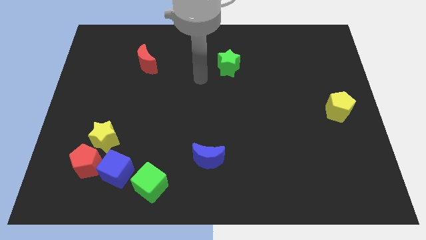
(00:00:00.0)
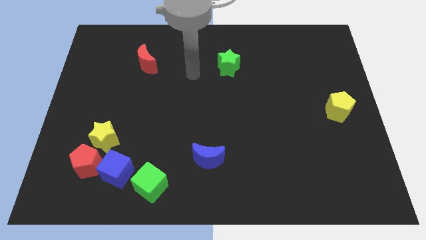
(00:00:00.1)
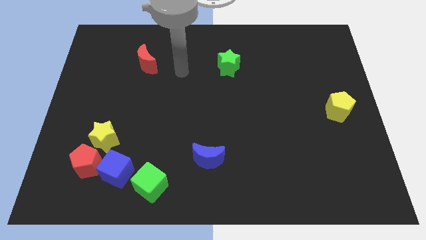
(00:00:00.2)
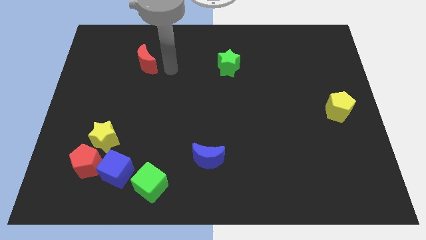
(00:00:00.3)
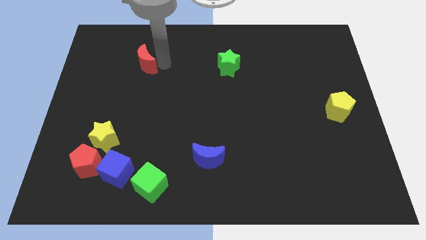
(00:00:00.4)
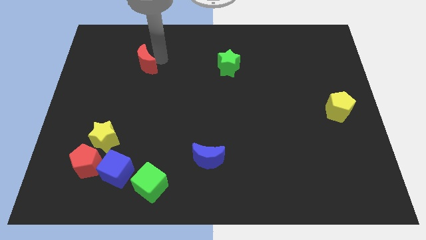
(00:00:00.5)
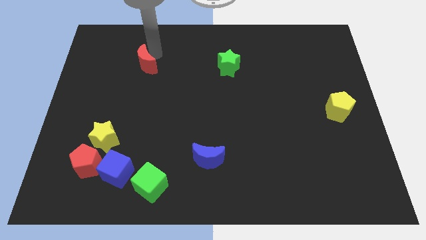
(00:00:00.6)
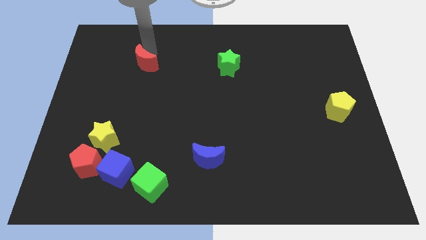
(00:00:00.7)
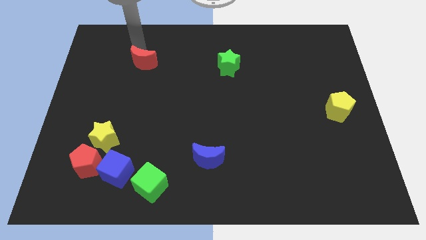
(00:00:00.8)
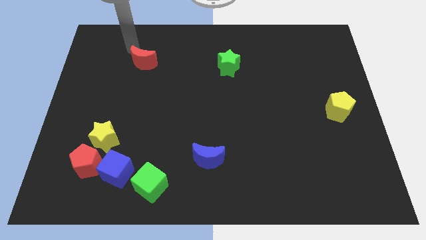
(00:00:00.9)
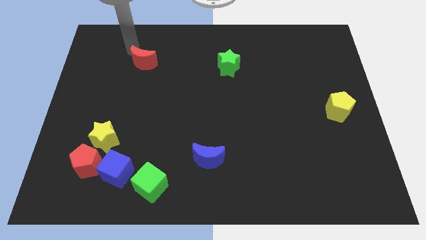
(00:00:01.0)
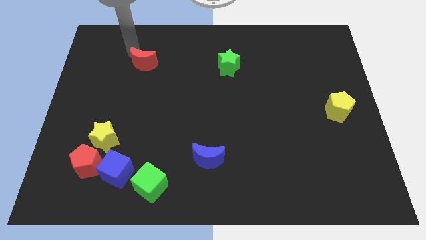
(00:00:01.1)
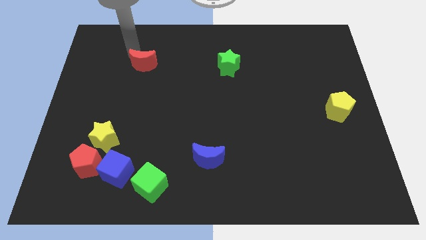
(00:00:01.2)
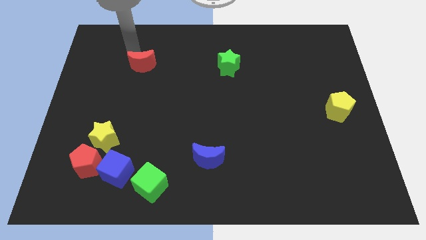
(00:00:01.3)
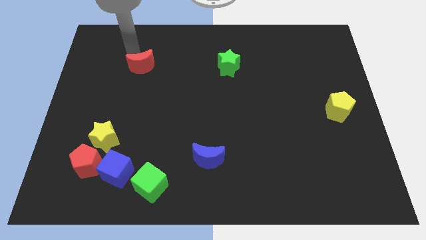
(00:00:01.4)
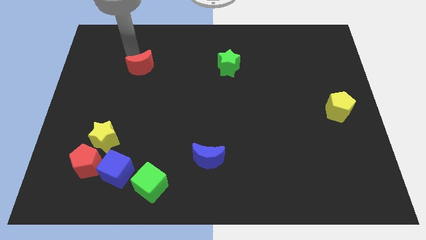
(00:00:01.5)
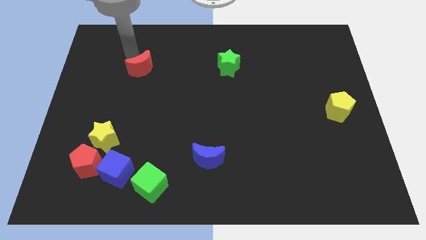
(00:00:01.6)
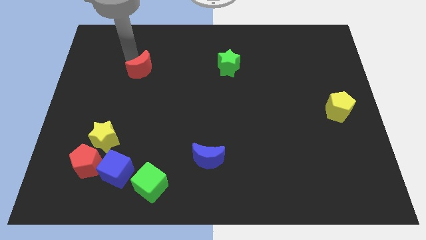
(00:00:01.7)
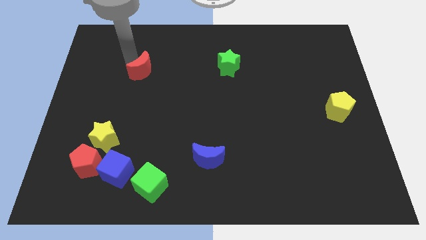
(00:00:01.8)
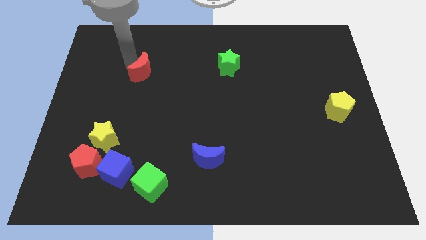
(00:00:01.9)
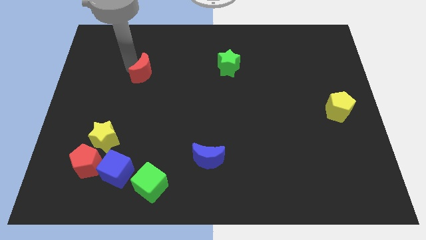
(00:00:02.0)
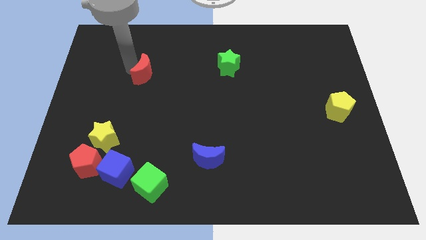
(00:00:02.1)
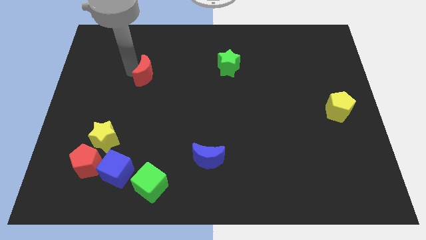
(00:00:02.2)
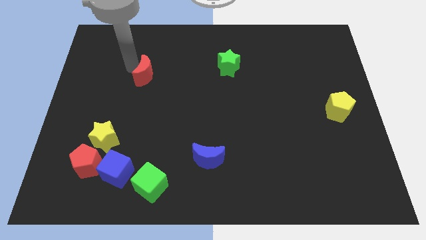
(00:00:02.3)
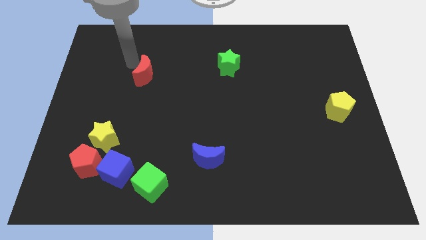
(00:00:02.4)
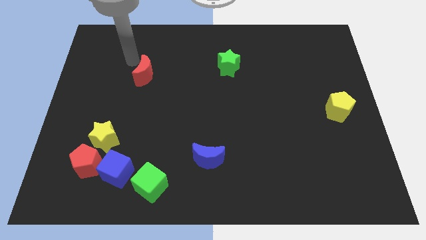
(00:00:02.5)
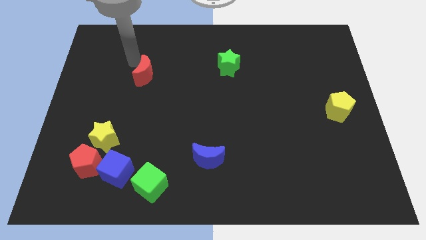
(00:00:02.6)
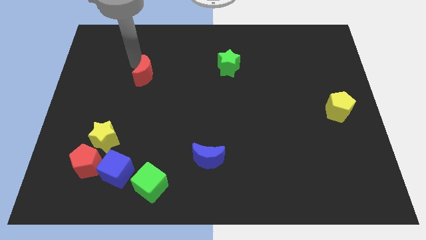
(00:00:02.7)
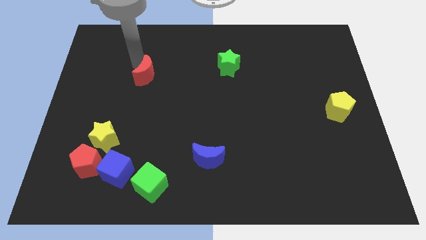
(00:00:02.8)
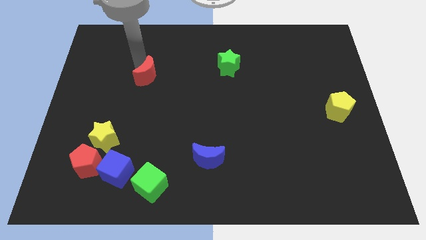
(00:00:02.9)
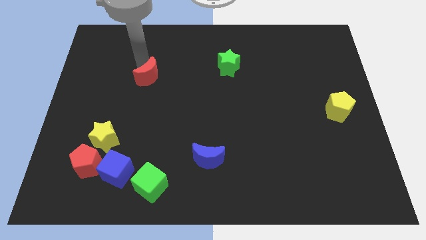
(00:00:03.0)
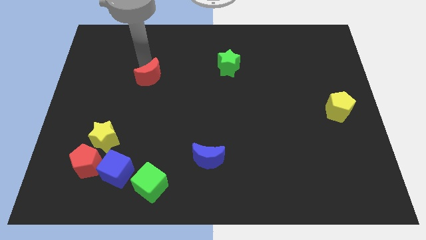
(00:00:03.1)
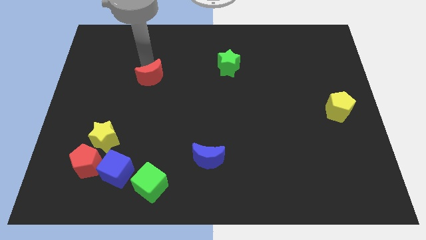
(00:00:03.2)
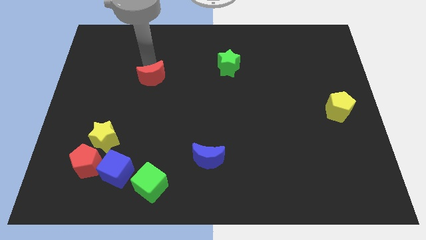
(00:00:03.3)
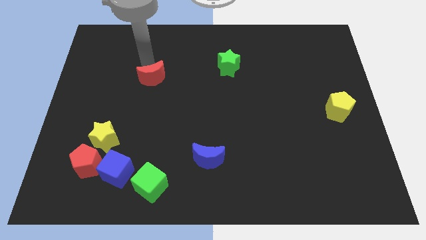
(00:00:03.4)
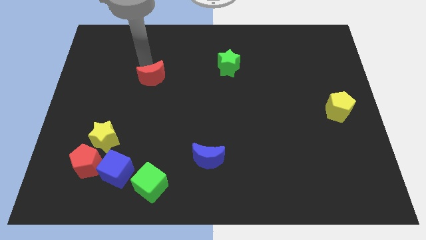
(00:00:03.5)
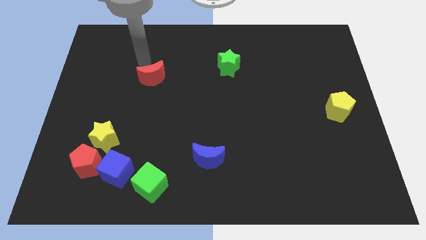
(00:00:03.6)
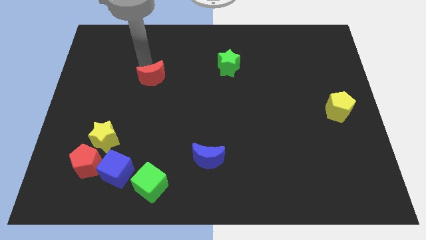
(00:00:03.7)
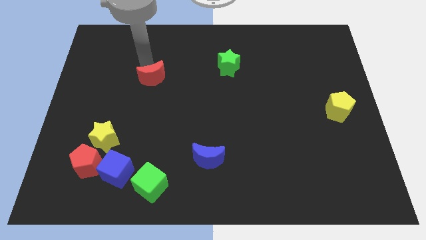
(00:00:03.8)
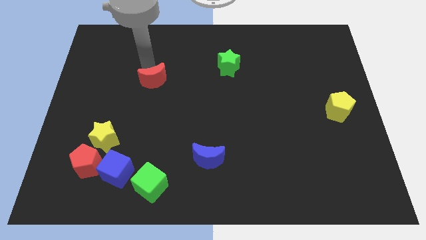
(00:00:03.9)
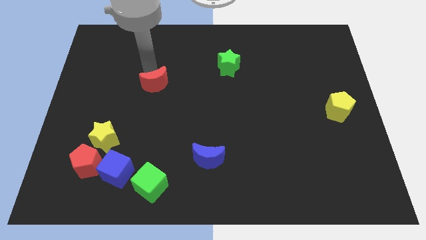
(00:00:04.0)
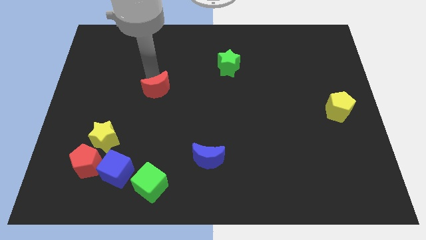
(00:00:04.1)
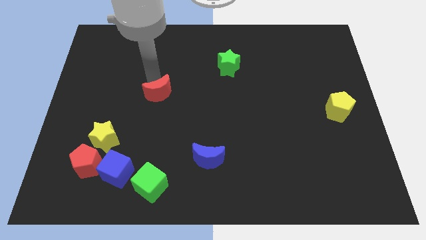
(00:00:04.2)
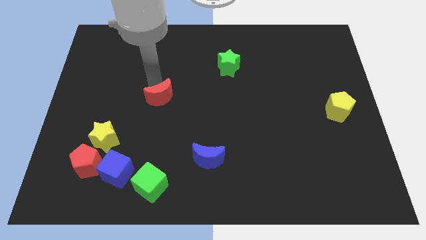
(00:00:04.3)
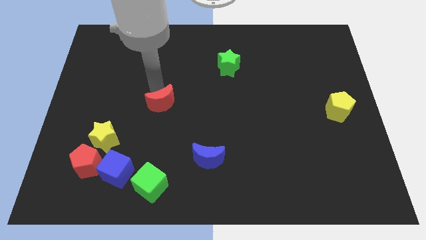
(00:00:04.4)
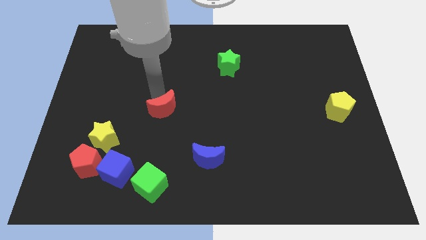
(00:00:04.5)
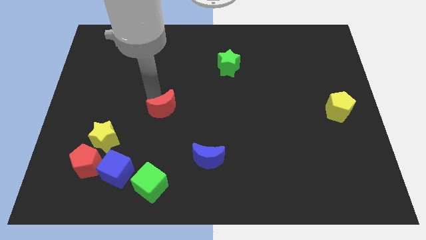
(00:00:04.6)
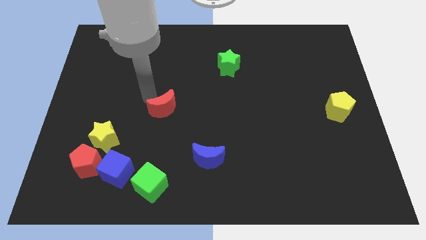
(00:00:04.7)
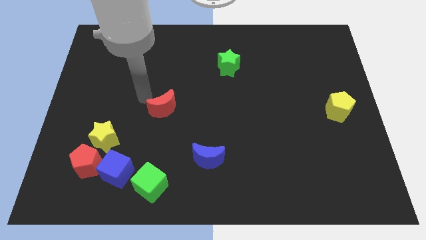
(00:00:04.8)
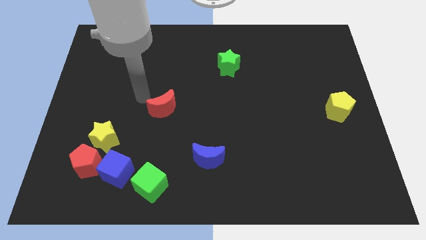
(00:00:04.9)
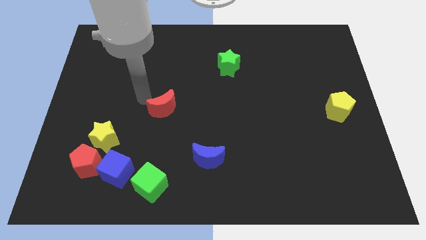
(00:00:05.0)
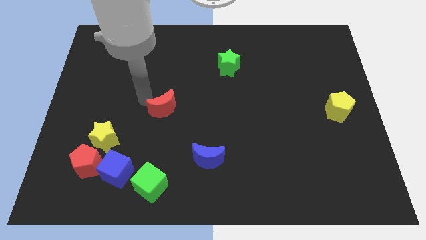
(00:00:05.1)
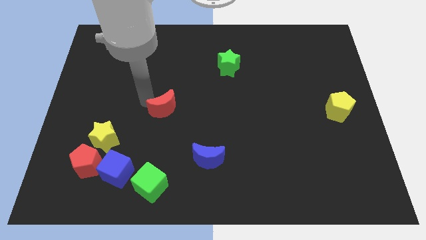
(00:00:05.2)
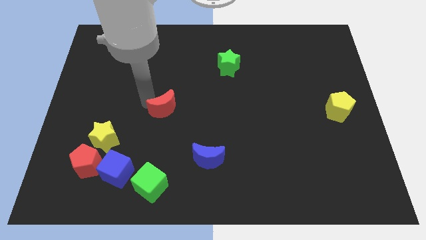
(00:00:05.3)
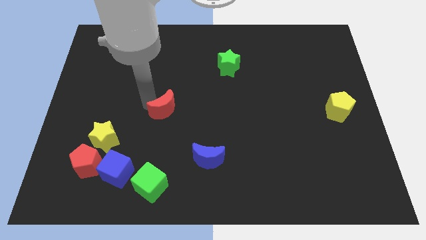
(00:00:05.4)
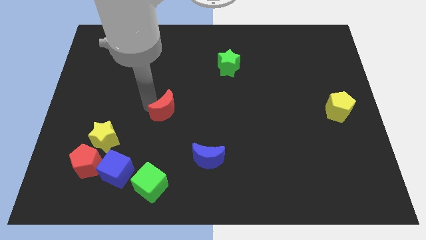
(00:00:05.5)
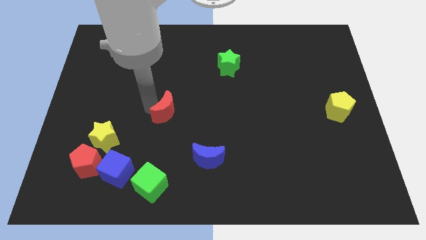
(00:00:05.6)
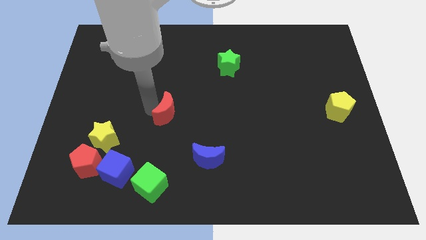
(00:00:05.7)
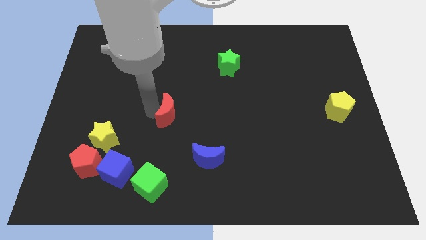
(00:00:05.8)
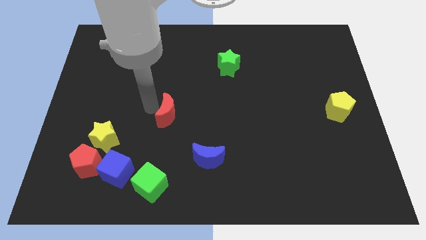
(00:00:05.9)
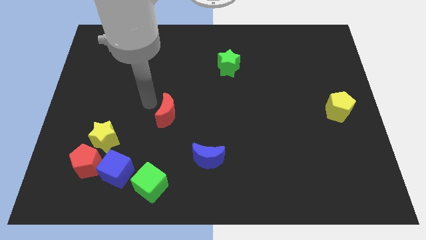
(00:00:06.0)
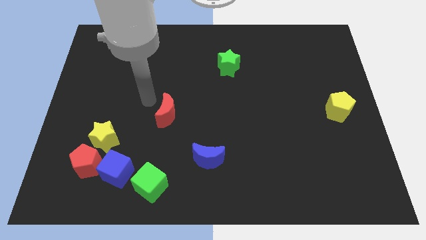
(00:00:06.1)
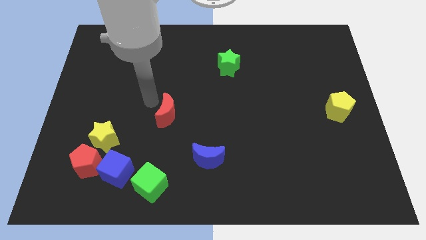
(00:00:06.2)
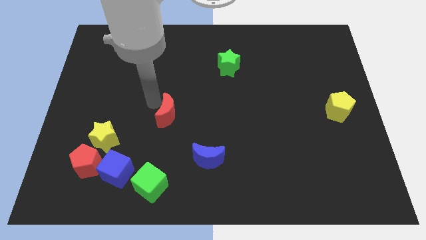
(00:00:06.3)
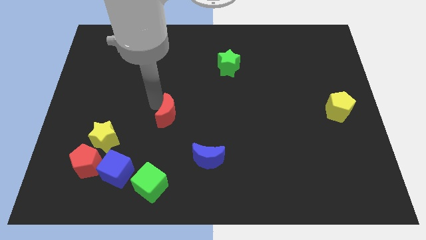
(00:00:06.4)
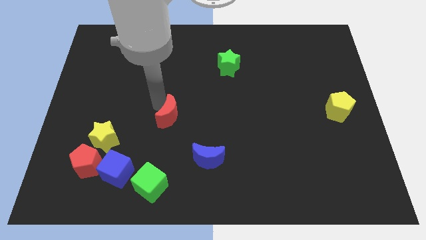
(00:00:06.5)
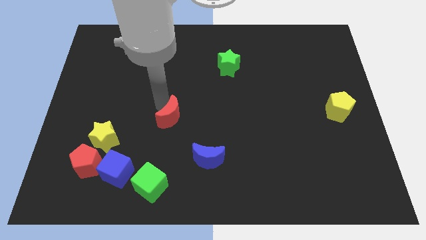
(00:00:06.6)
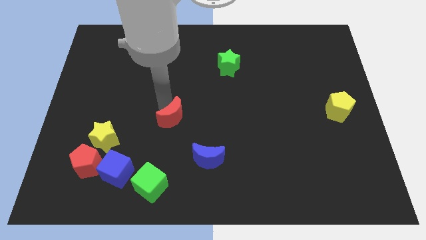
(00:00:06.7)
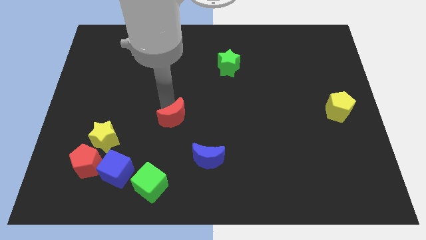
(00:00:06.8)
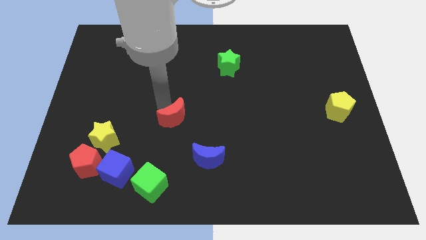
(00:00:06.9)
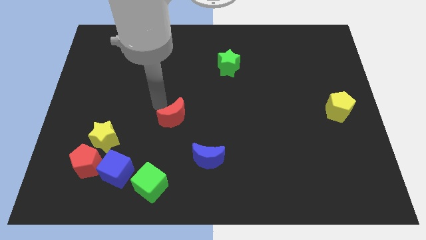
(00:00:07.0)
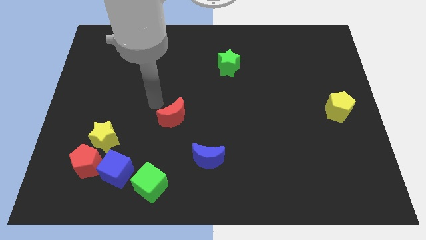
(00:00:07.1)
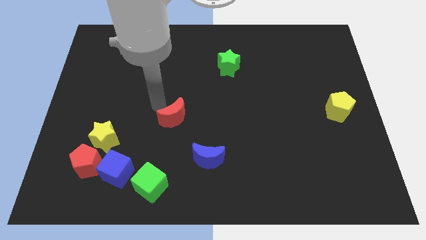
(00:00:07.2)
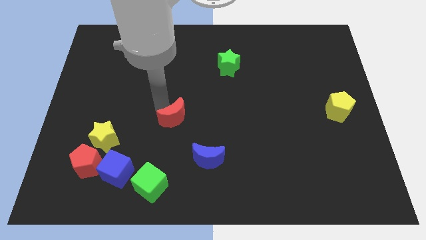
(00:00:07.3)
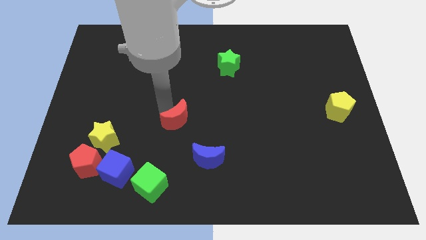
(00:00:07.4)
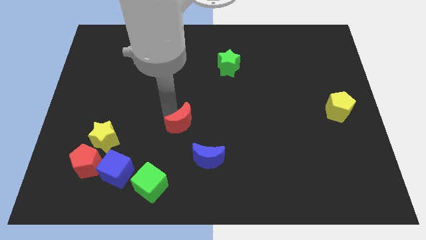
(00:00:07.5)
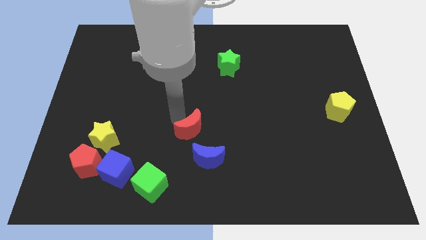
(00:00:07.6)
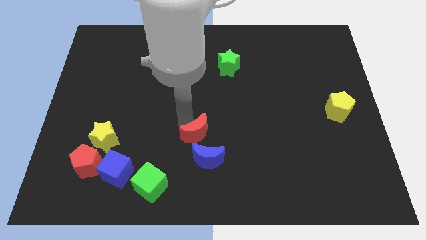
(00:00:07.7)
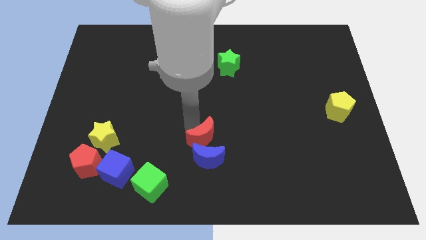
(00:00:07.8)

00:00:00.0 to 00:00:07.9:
push the red moon to the blue moon
